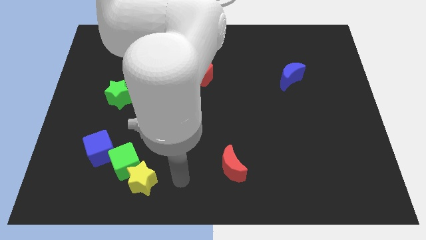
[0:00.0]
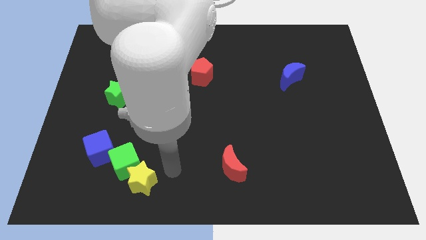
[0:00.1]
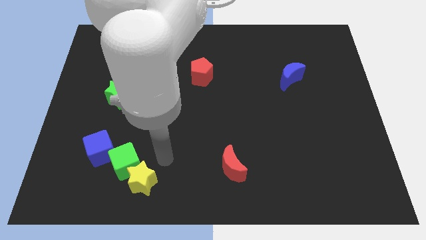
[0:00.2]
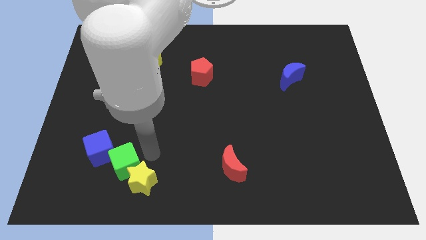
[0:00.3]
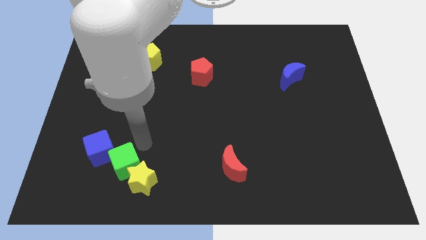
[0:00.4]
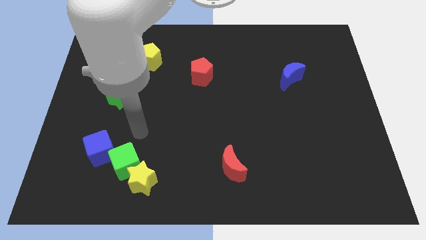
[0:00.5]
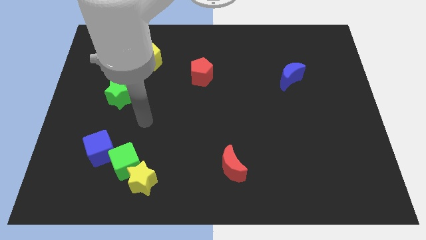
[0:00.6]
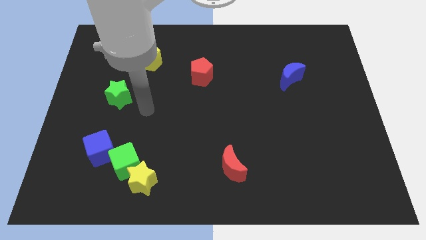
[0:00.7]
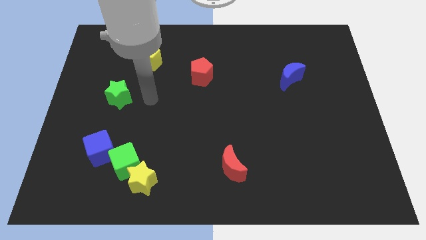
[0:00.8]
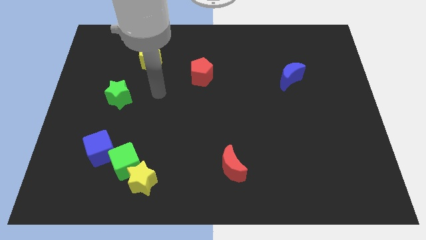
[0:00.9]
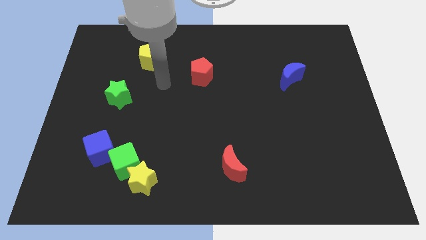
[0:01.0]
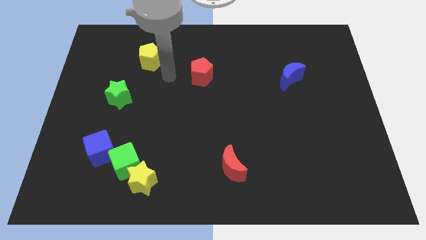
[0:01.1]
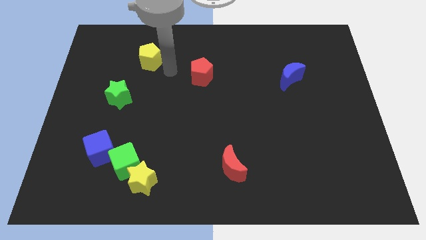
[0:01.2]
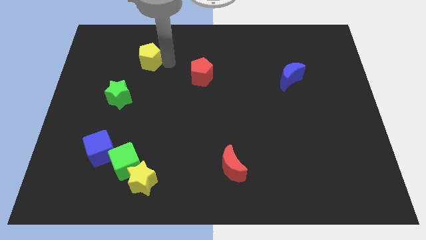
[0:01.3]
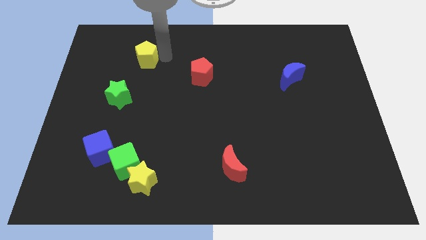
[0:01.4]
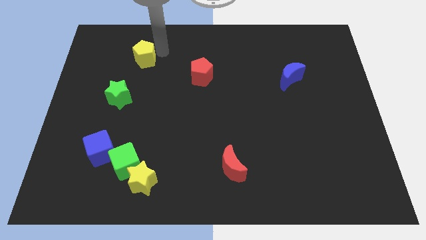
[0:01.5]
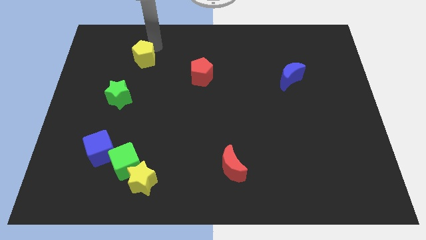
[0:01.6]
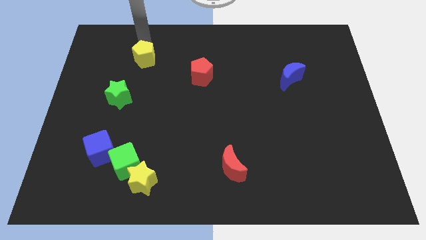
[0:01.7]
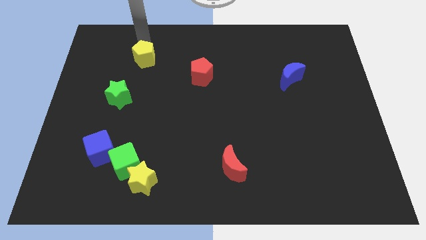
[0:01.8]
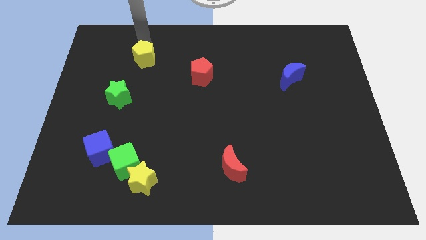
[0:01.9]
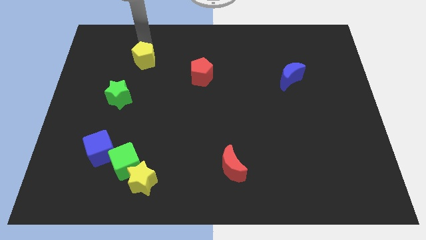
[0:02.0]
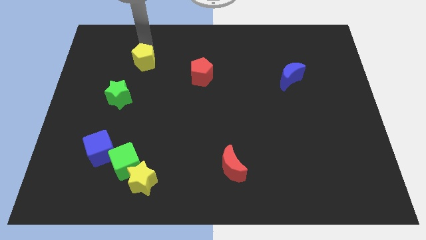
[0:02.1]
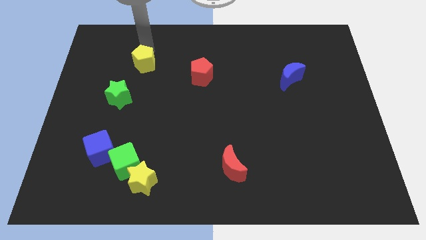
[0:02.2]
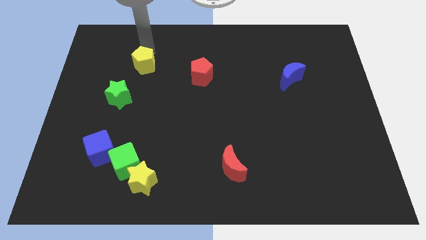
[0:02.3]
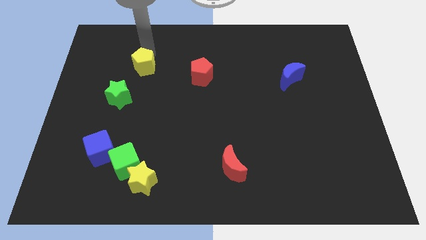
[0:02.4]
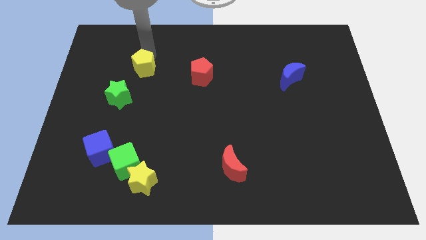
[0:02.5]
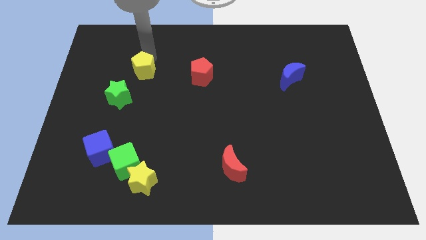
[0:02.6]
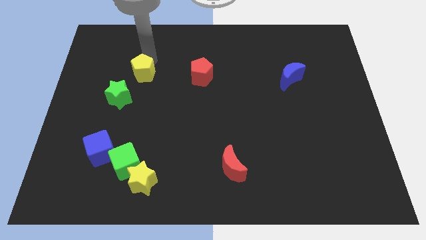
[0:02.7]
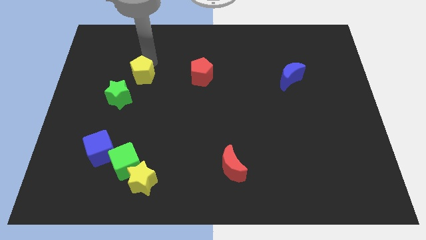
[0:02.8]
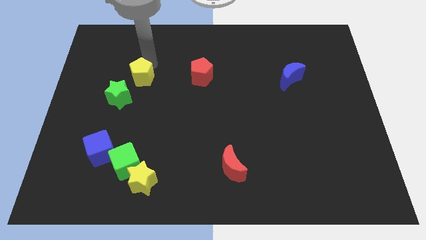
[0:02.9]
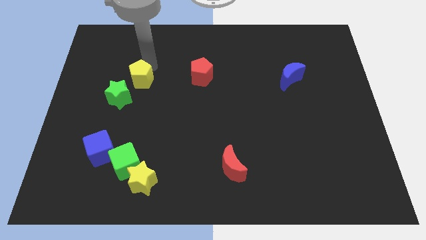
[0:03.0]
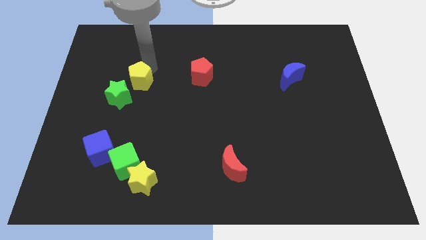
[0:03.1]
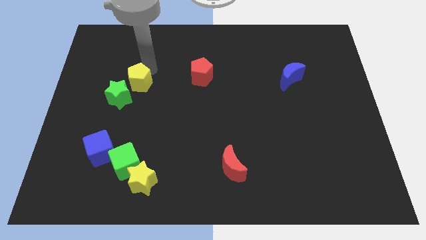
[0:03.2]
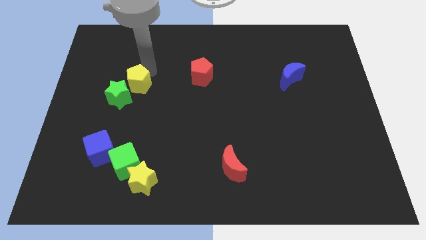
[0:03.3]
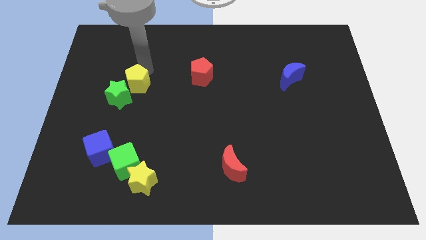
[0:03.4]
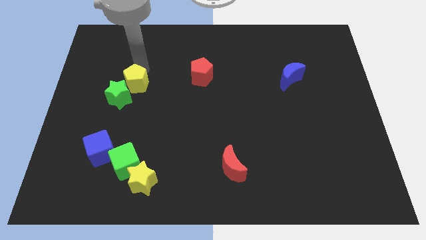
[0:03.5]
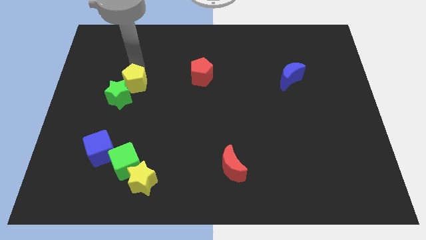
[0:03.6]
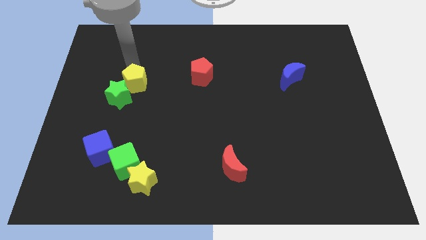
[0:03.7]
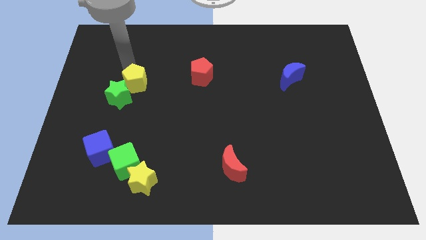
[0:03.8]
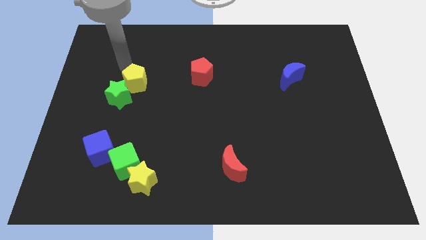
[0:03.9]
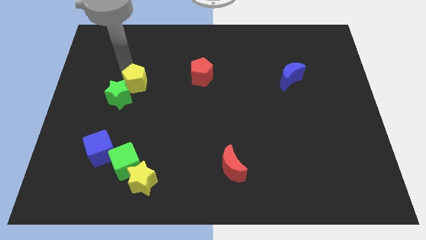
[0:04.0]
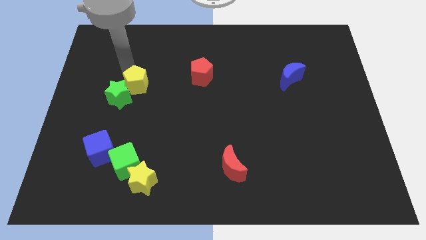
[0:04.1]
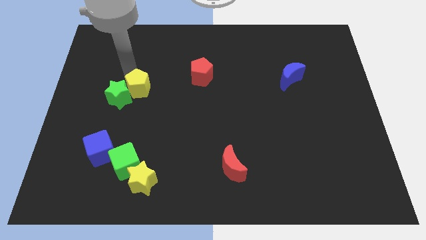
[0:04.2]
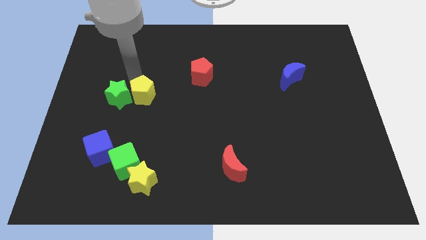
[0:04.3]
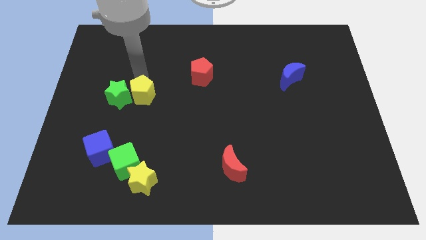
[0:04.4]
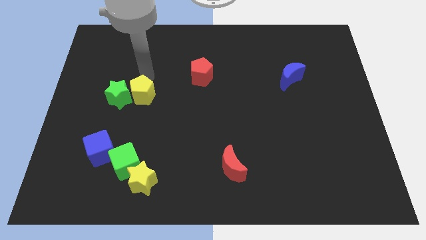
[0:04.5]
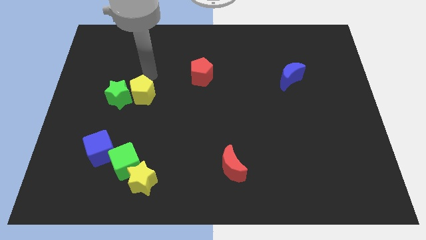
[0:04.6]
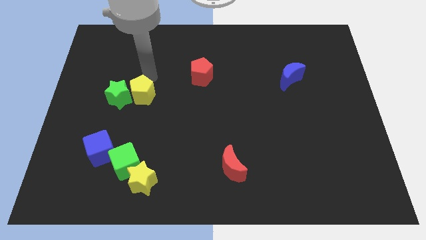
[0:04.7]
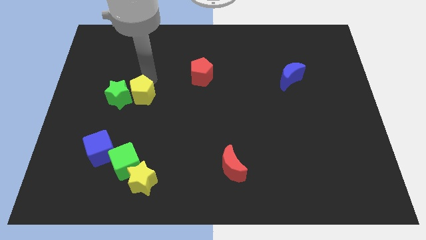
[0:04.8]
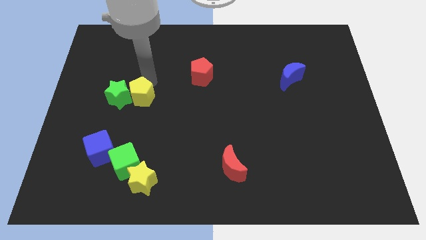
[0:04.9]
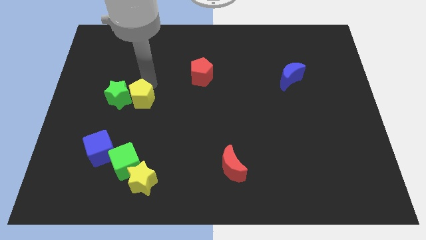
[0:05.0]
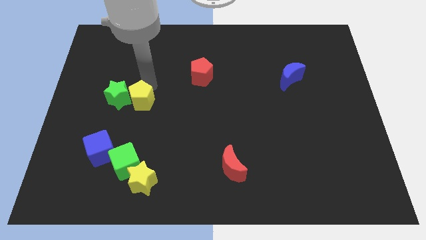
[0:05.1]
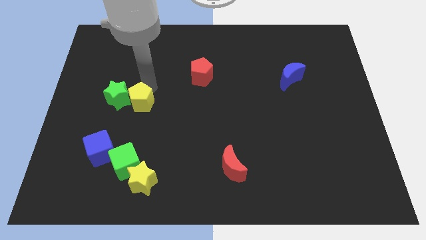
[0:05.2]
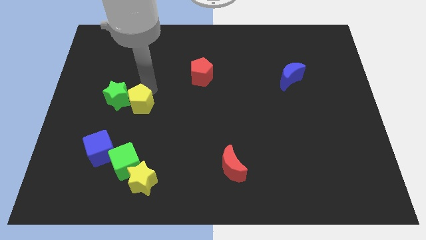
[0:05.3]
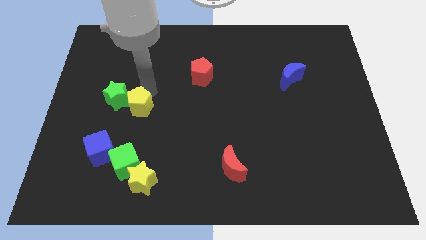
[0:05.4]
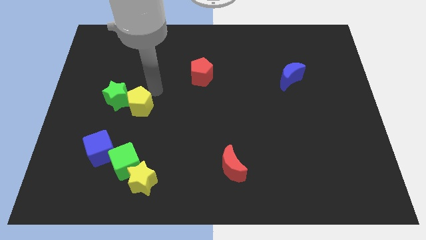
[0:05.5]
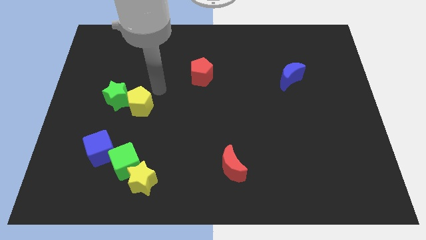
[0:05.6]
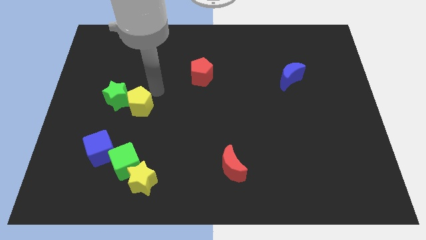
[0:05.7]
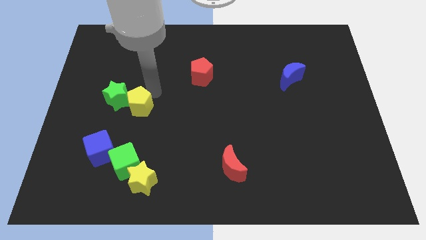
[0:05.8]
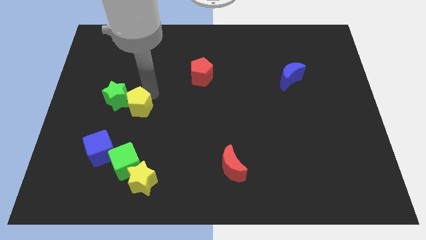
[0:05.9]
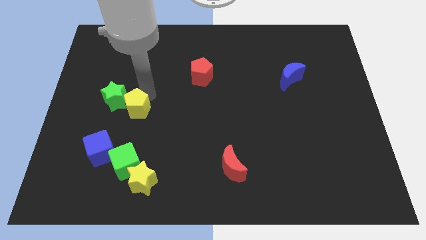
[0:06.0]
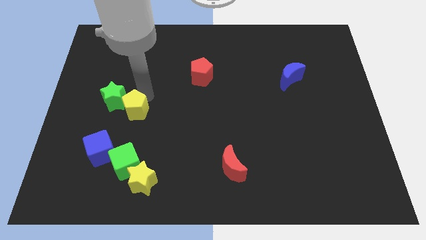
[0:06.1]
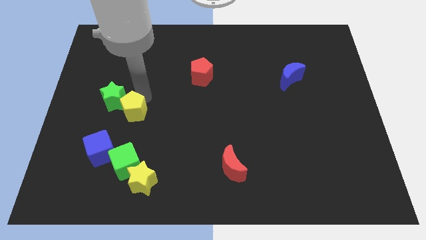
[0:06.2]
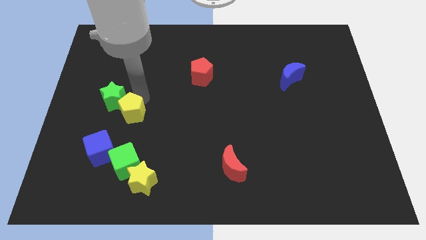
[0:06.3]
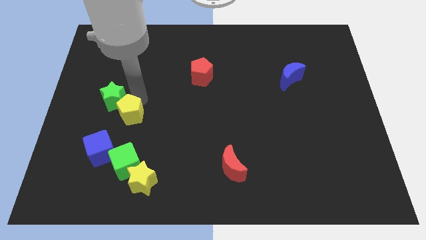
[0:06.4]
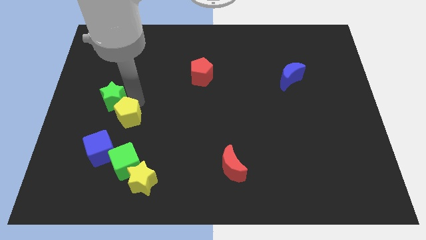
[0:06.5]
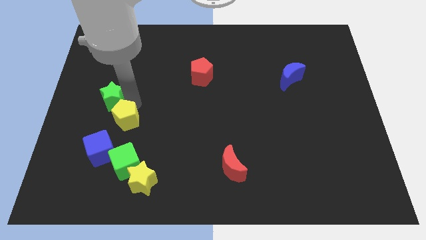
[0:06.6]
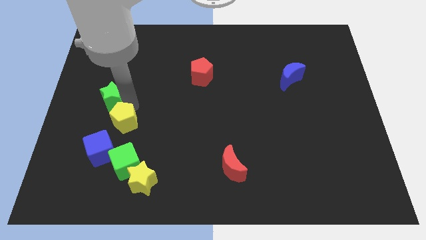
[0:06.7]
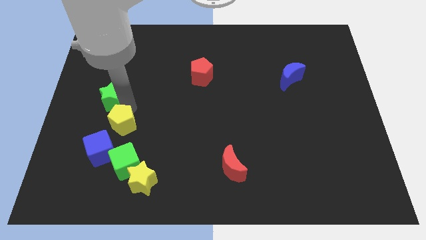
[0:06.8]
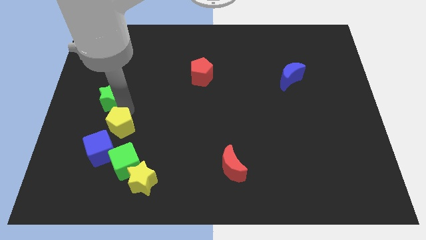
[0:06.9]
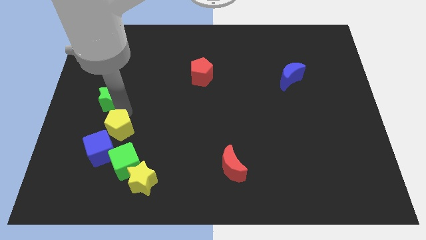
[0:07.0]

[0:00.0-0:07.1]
put the yellow pentagon to the top left side of the green cube

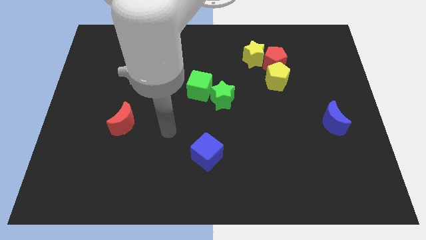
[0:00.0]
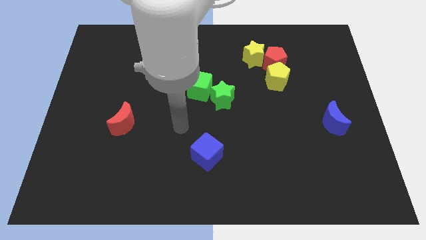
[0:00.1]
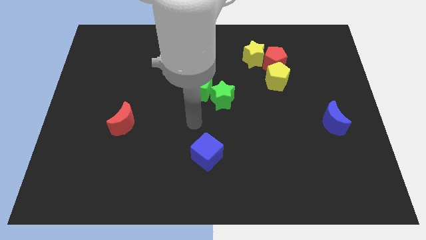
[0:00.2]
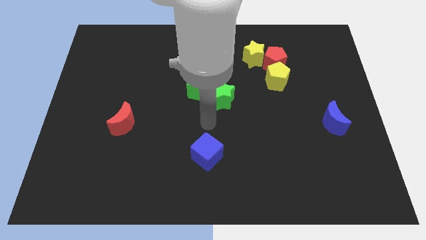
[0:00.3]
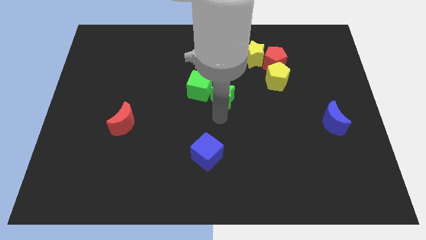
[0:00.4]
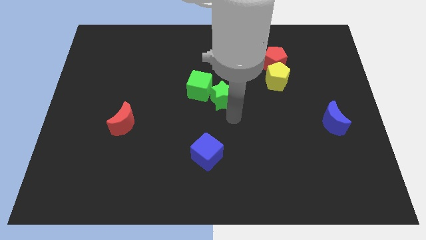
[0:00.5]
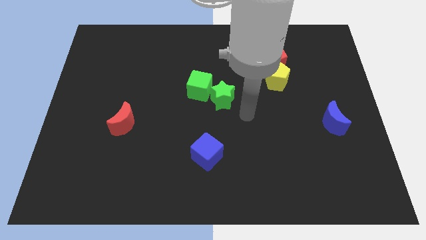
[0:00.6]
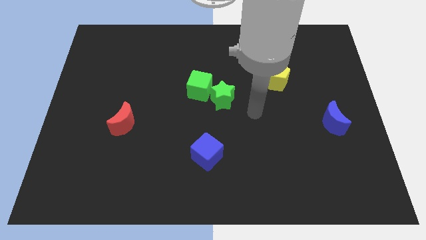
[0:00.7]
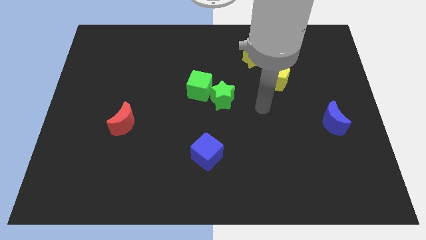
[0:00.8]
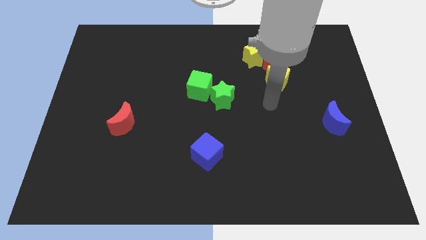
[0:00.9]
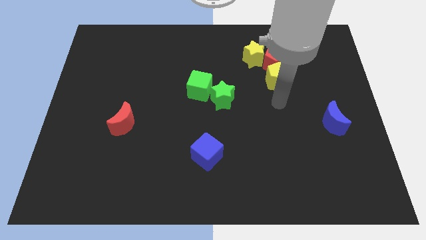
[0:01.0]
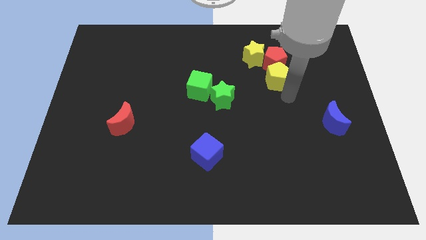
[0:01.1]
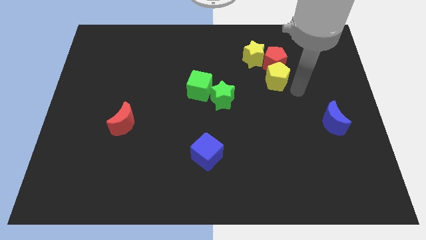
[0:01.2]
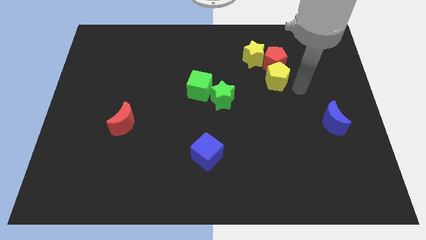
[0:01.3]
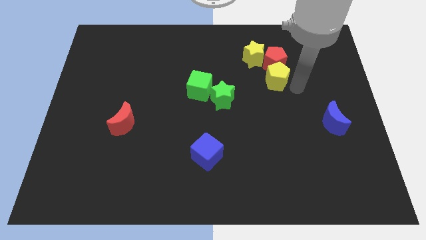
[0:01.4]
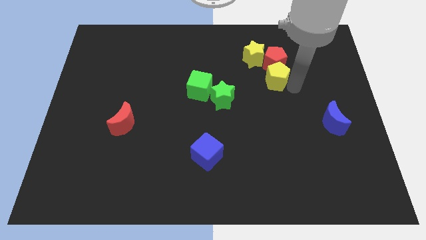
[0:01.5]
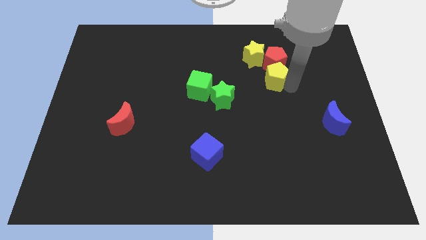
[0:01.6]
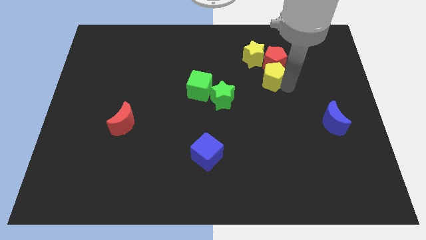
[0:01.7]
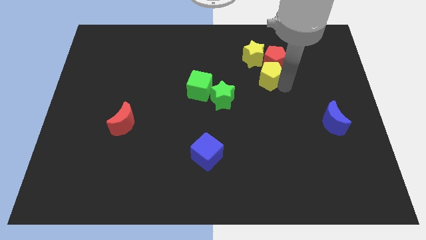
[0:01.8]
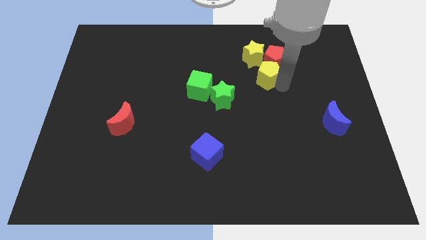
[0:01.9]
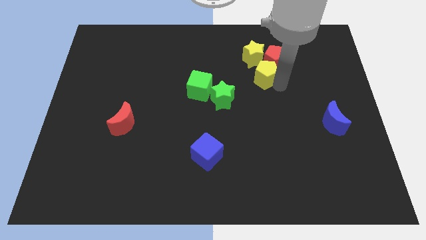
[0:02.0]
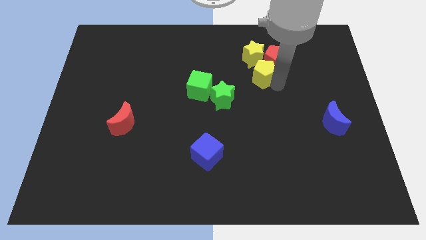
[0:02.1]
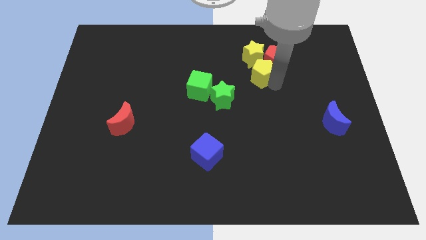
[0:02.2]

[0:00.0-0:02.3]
move the yellow pentagon just left of the red pentagon
